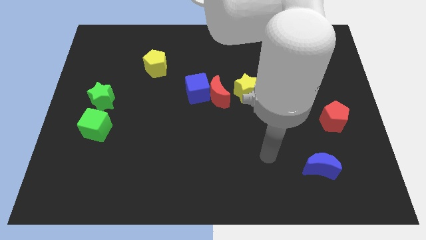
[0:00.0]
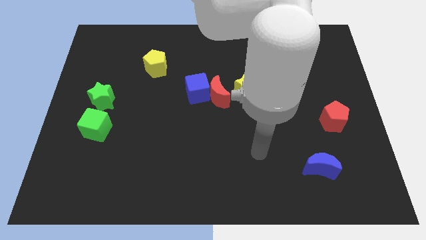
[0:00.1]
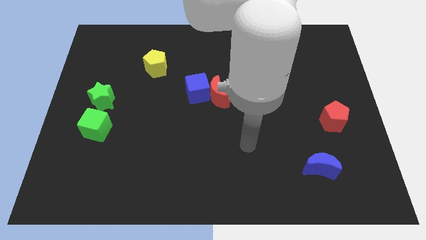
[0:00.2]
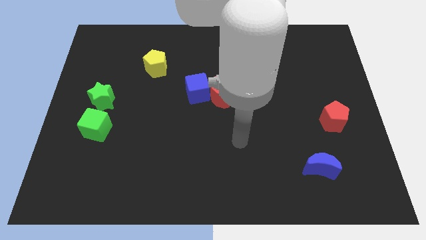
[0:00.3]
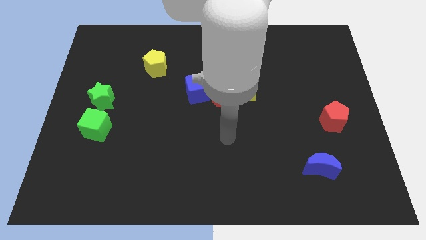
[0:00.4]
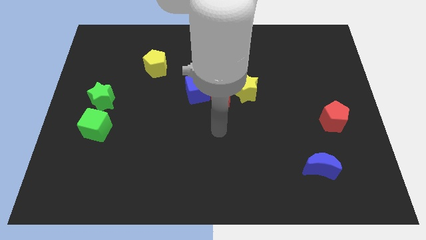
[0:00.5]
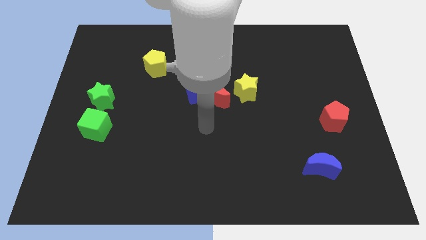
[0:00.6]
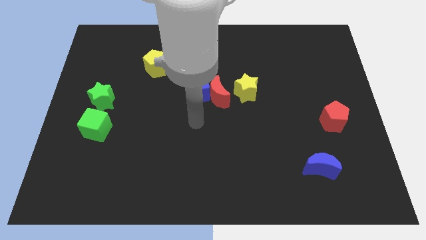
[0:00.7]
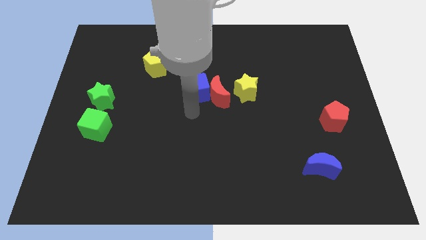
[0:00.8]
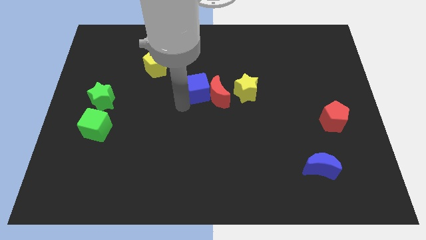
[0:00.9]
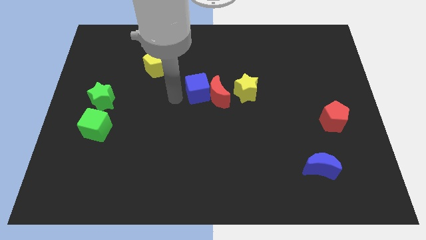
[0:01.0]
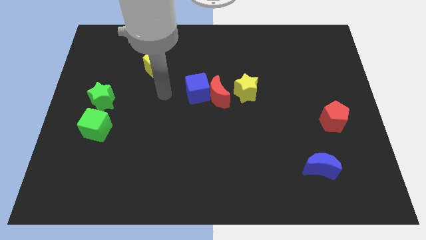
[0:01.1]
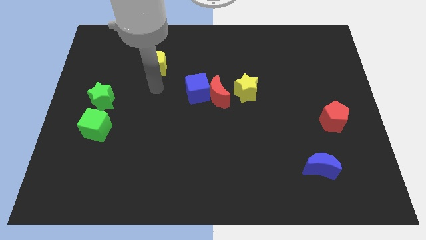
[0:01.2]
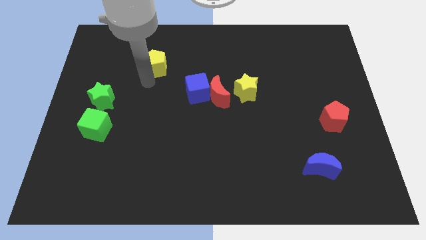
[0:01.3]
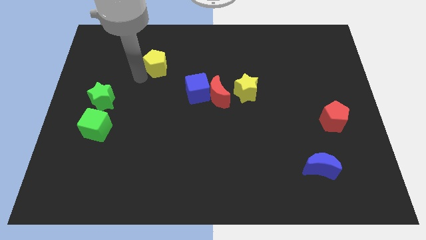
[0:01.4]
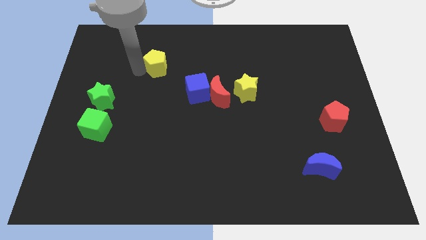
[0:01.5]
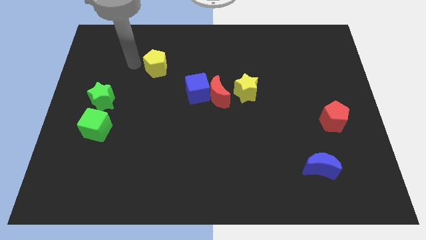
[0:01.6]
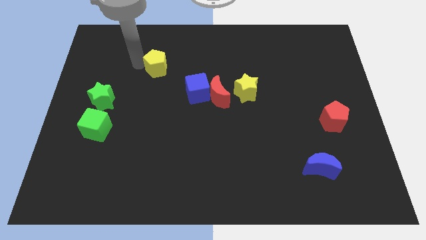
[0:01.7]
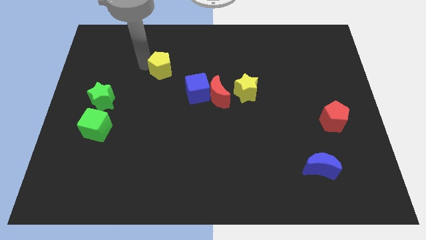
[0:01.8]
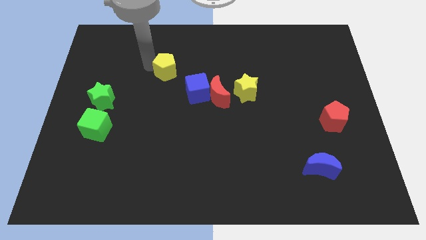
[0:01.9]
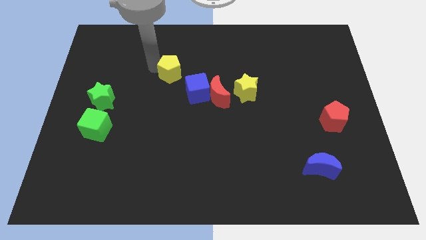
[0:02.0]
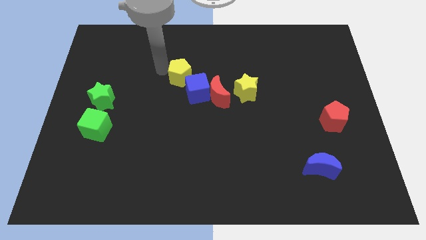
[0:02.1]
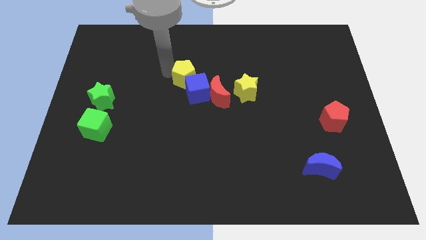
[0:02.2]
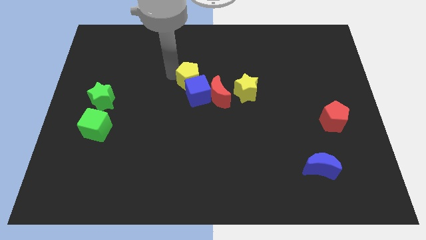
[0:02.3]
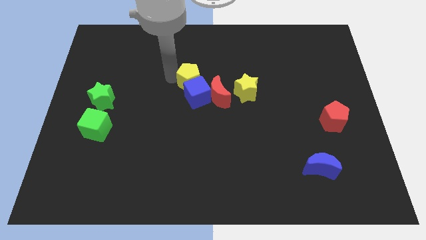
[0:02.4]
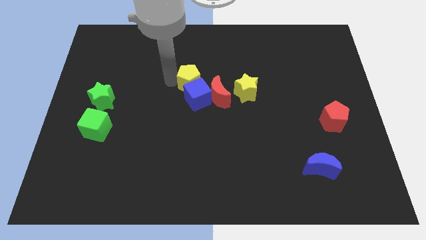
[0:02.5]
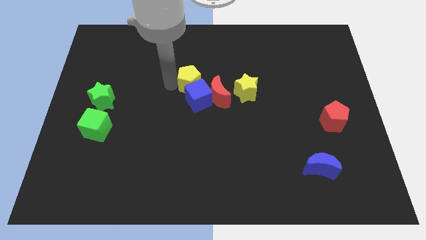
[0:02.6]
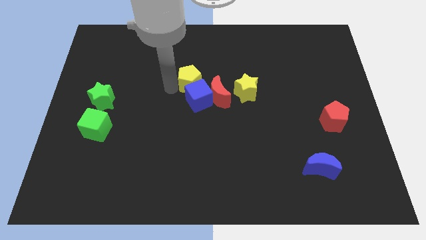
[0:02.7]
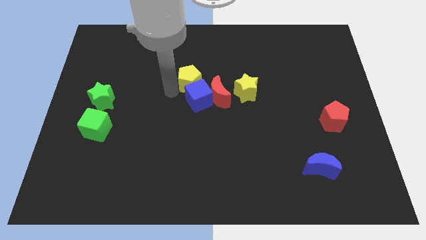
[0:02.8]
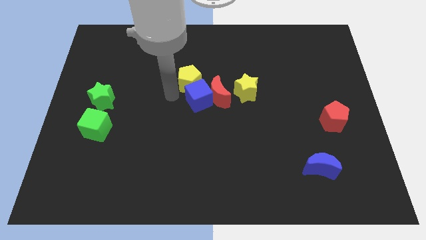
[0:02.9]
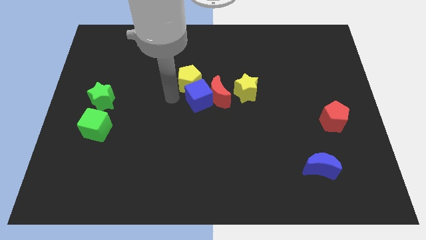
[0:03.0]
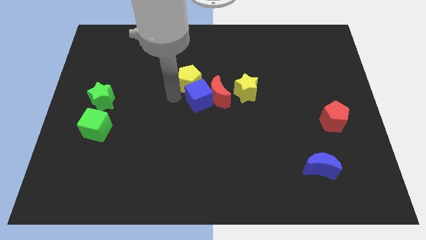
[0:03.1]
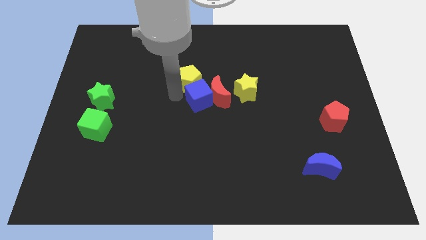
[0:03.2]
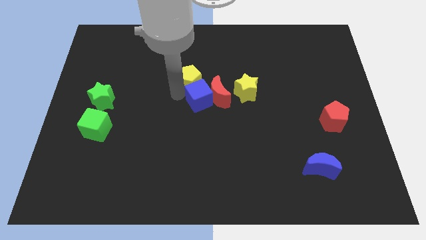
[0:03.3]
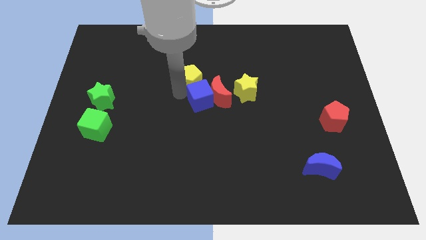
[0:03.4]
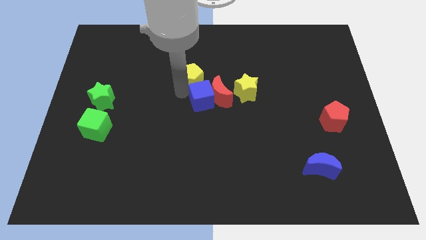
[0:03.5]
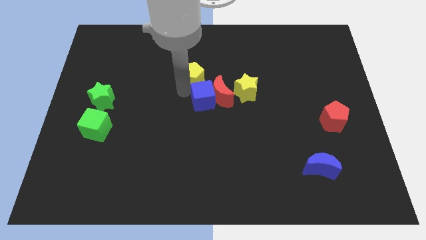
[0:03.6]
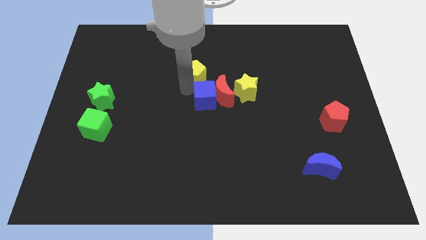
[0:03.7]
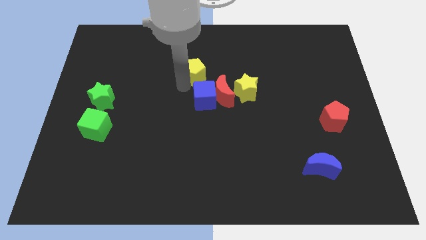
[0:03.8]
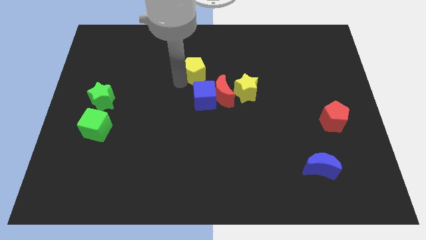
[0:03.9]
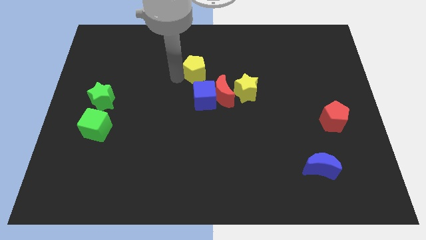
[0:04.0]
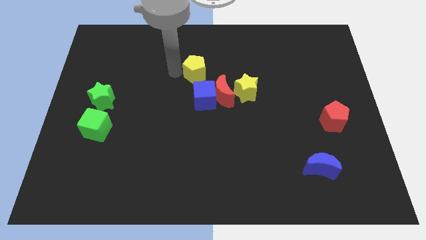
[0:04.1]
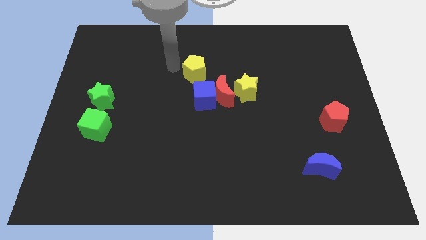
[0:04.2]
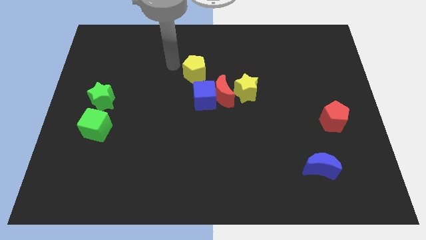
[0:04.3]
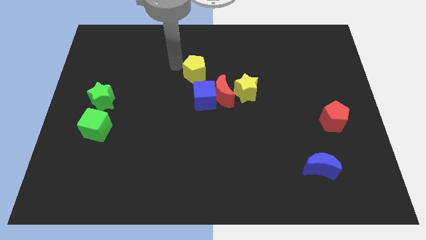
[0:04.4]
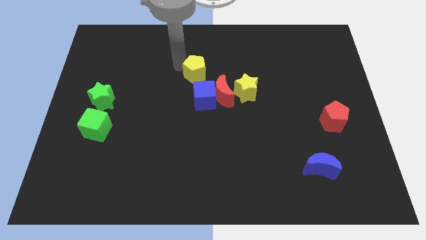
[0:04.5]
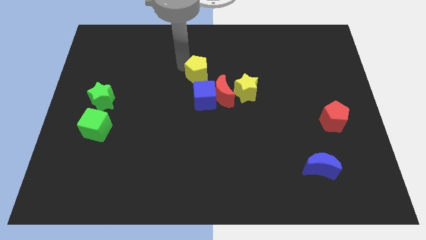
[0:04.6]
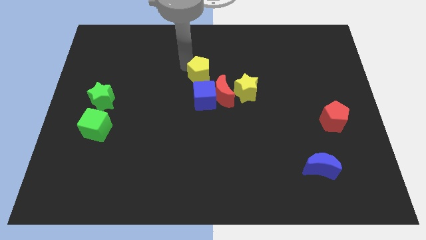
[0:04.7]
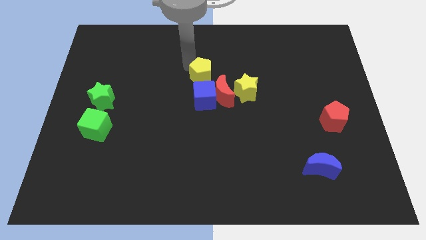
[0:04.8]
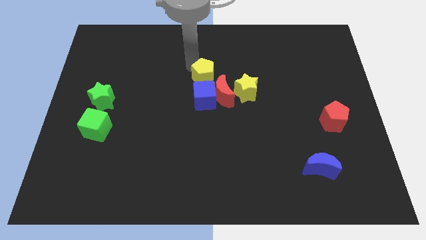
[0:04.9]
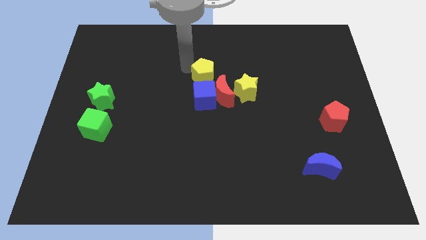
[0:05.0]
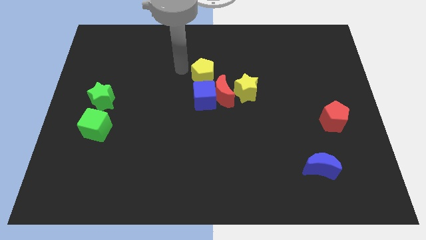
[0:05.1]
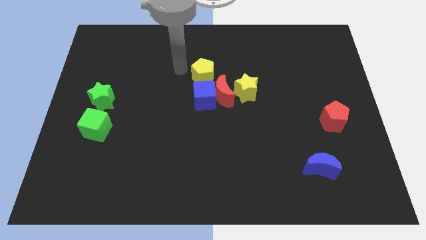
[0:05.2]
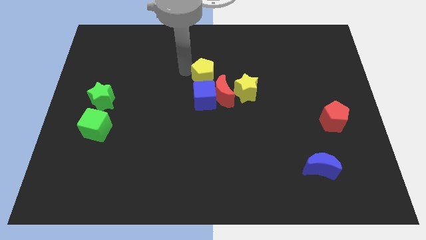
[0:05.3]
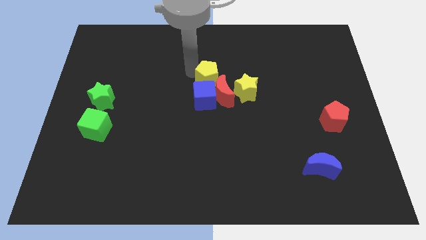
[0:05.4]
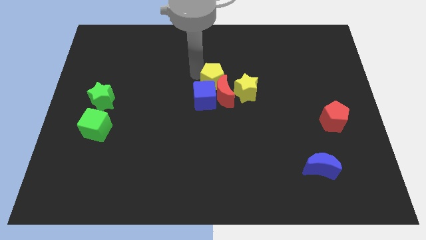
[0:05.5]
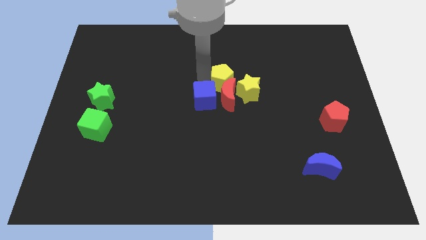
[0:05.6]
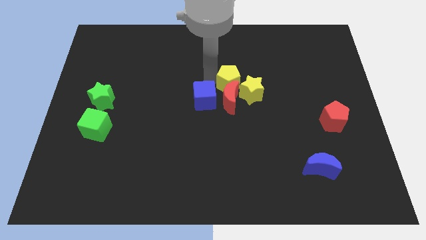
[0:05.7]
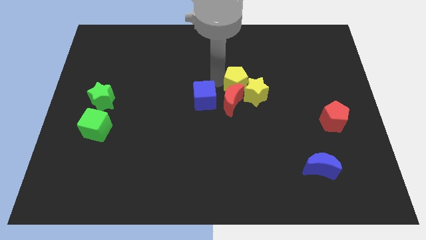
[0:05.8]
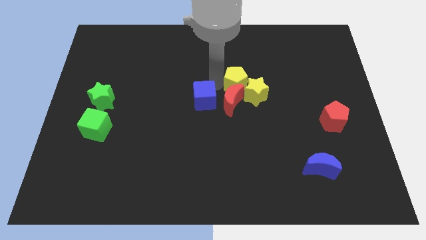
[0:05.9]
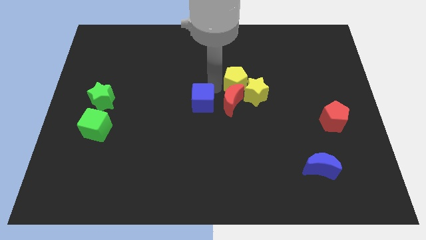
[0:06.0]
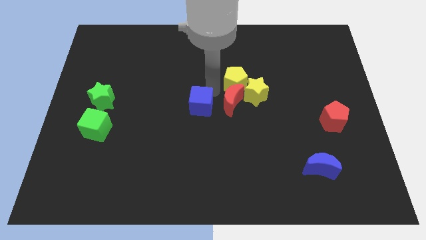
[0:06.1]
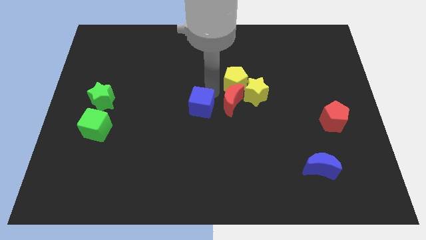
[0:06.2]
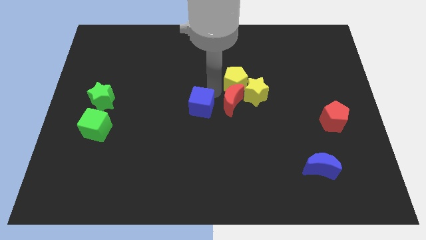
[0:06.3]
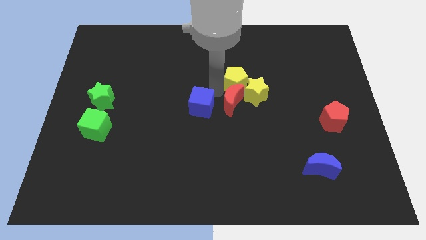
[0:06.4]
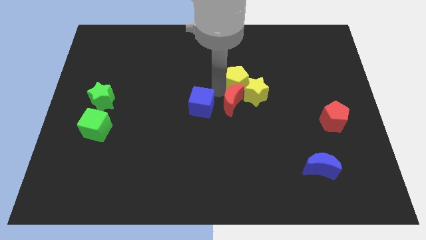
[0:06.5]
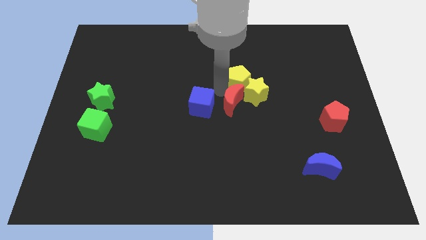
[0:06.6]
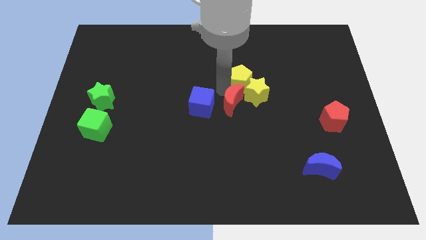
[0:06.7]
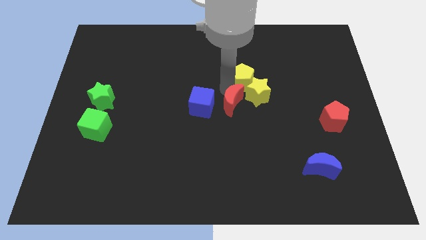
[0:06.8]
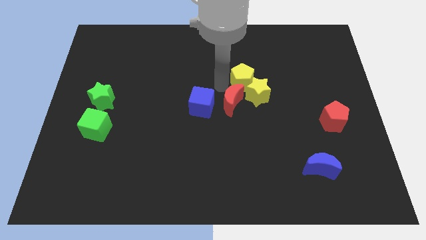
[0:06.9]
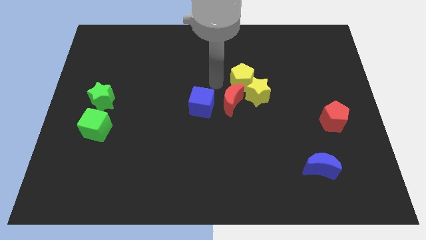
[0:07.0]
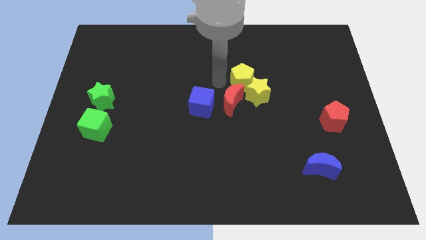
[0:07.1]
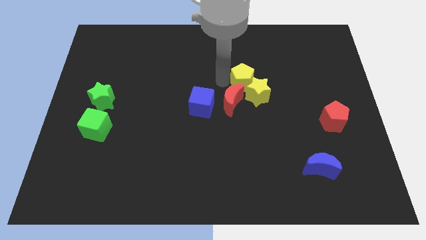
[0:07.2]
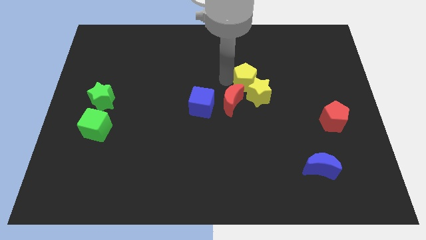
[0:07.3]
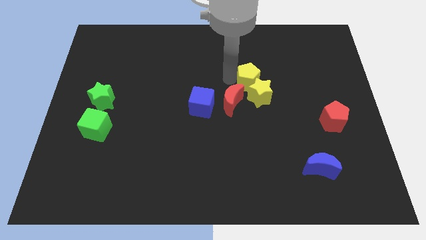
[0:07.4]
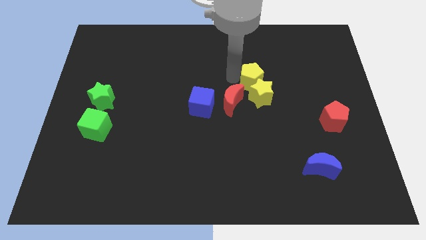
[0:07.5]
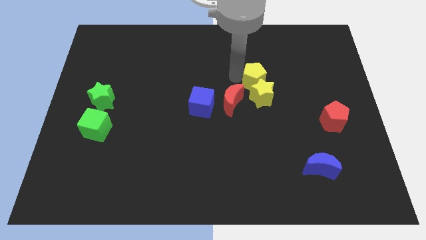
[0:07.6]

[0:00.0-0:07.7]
move the yellow pentagon to the top right side of the yellow star

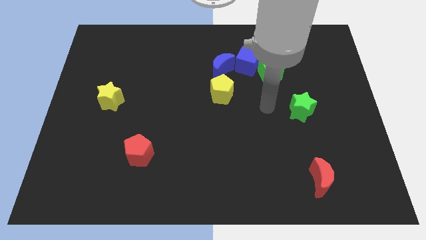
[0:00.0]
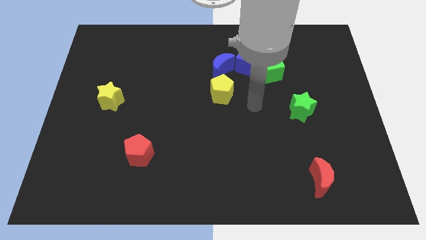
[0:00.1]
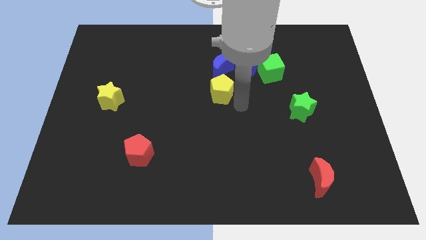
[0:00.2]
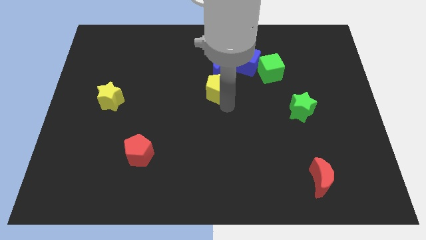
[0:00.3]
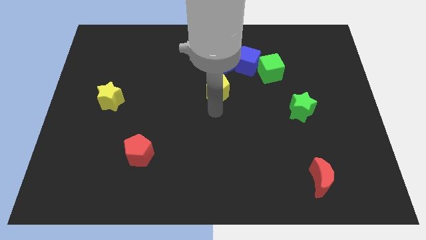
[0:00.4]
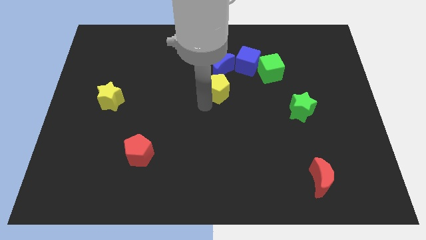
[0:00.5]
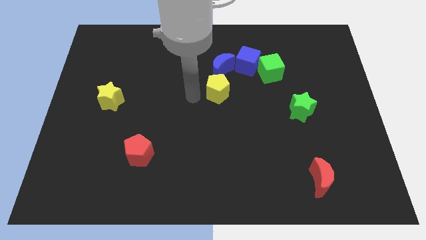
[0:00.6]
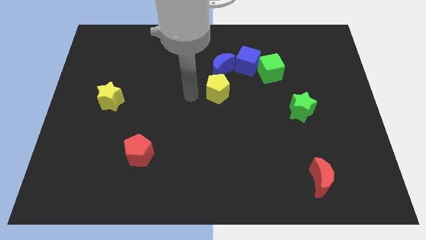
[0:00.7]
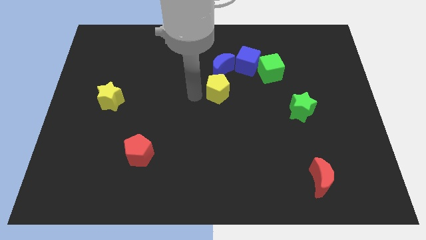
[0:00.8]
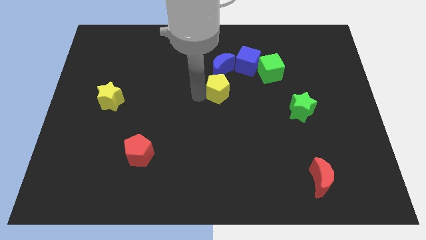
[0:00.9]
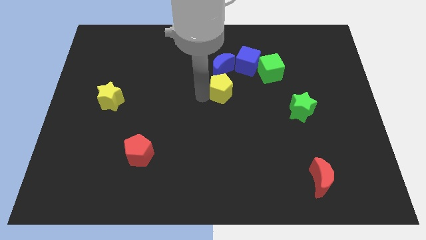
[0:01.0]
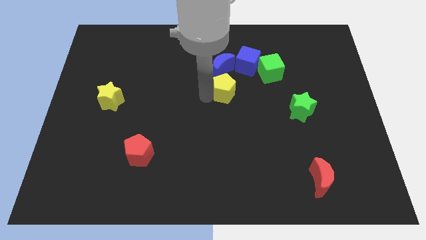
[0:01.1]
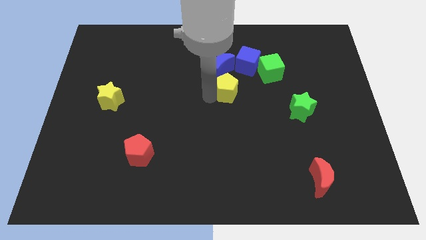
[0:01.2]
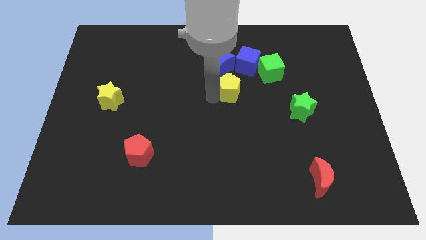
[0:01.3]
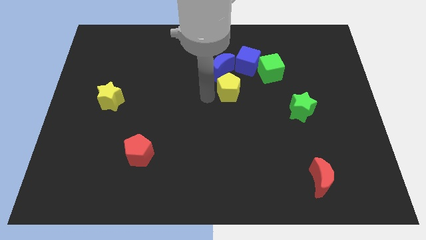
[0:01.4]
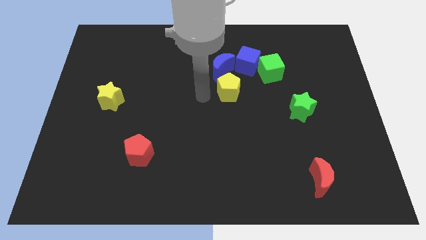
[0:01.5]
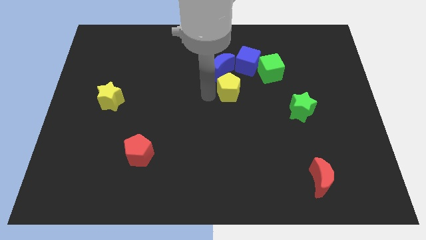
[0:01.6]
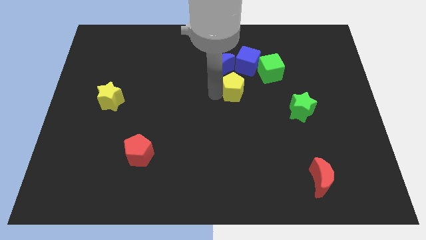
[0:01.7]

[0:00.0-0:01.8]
put the yellow pentagon diagonally down and to the left of the green cube
